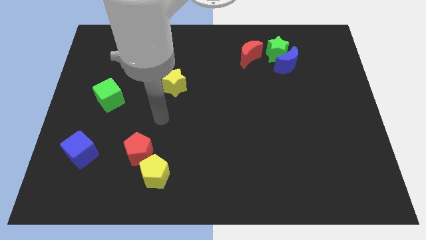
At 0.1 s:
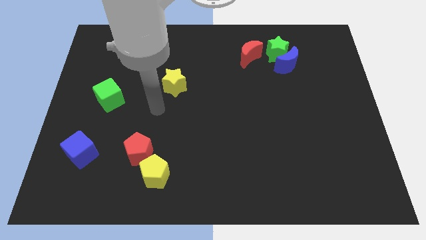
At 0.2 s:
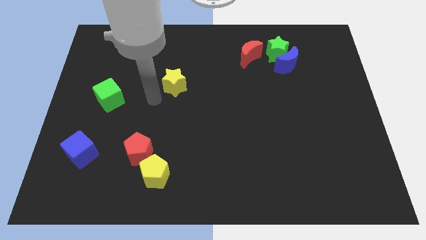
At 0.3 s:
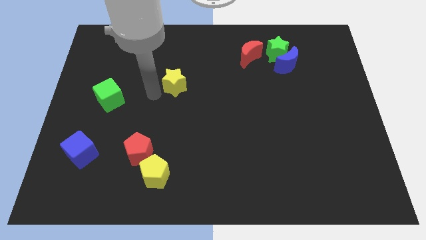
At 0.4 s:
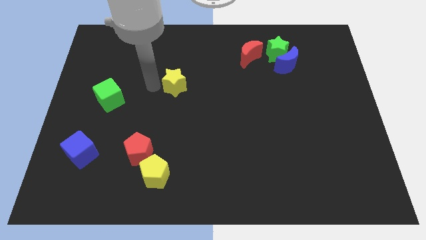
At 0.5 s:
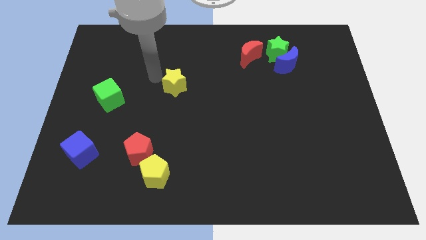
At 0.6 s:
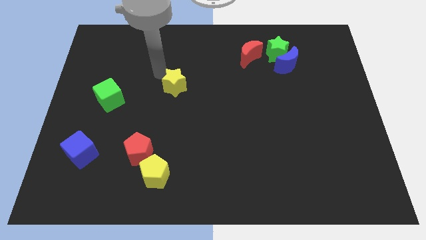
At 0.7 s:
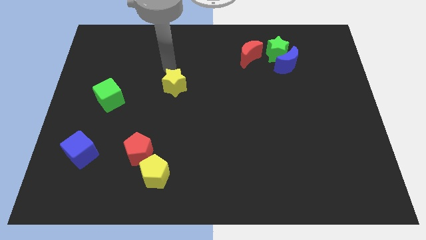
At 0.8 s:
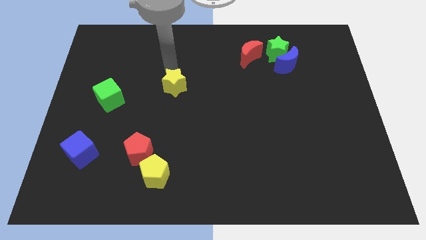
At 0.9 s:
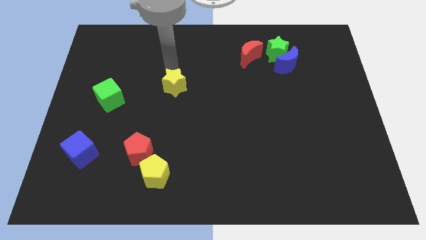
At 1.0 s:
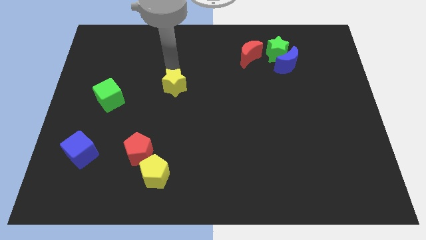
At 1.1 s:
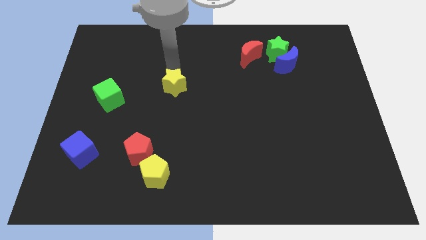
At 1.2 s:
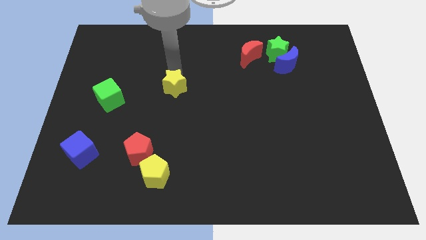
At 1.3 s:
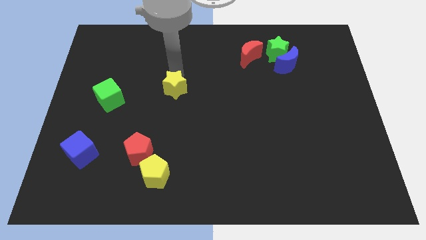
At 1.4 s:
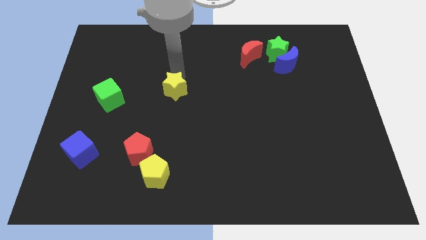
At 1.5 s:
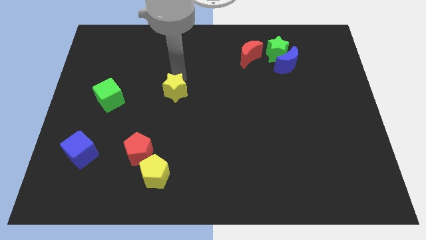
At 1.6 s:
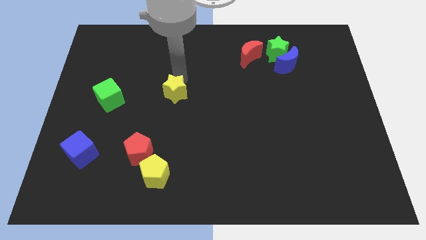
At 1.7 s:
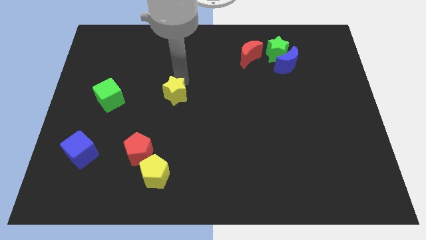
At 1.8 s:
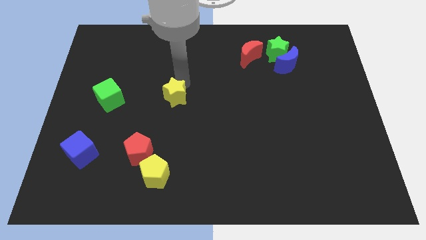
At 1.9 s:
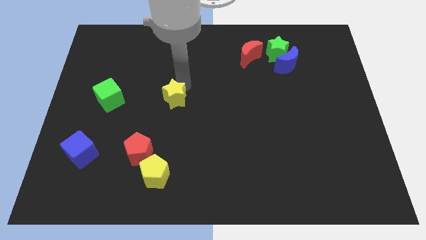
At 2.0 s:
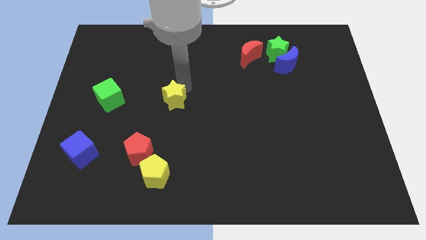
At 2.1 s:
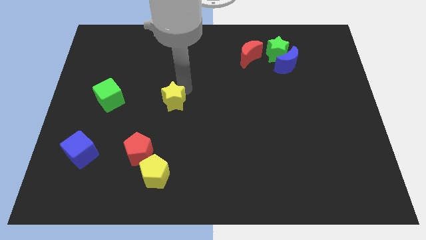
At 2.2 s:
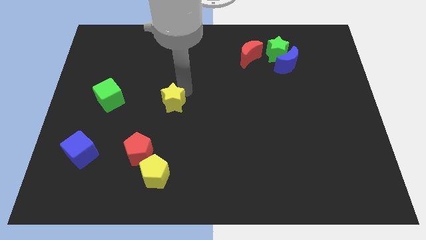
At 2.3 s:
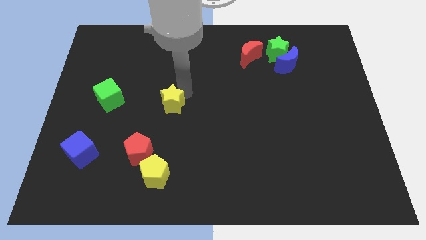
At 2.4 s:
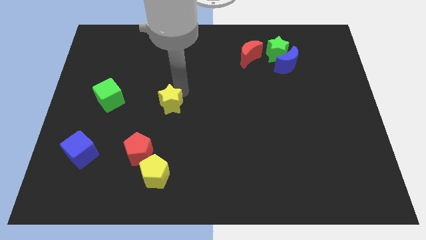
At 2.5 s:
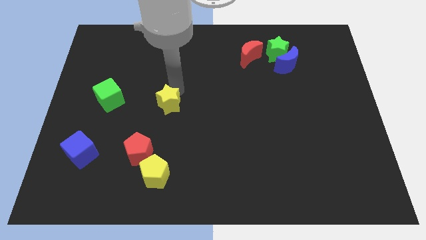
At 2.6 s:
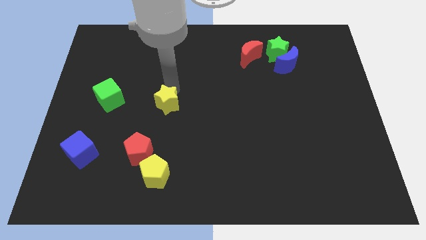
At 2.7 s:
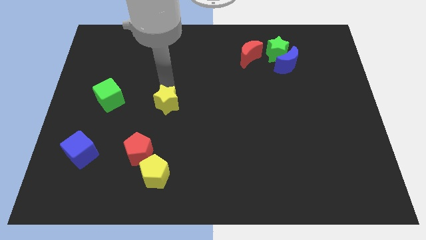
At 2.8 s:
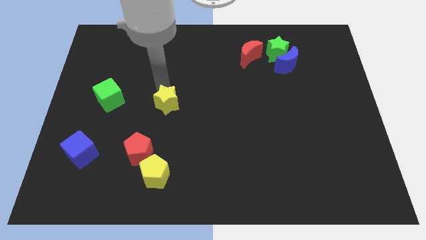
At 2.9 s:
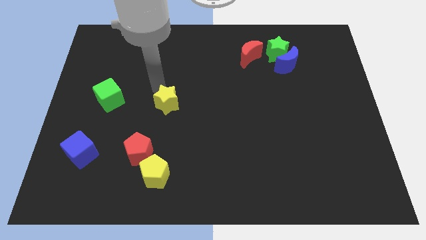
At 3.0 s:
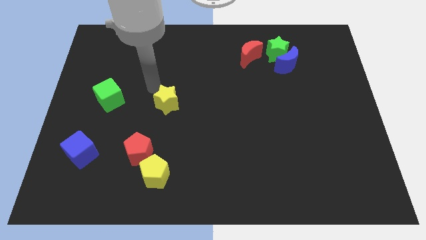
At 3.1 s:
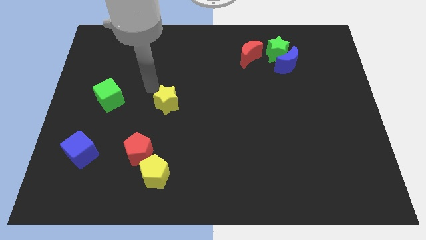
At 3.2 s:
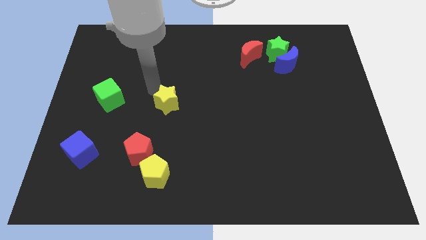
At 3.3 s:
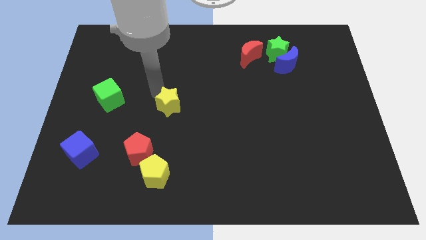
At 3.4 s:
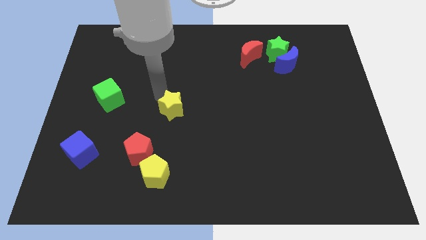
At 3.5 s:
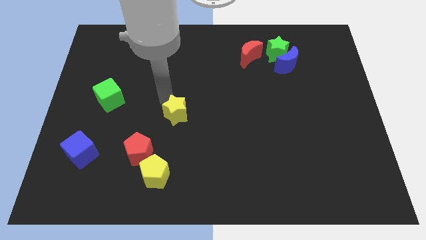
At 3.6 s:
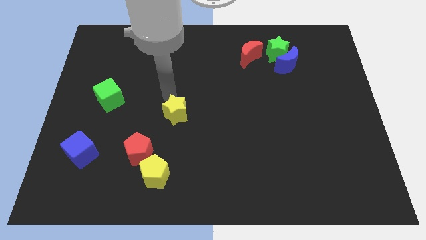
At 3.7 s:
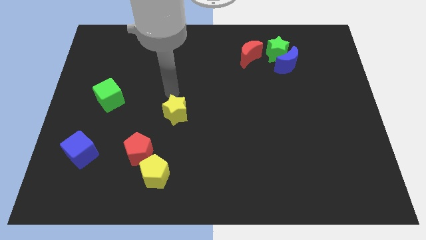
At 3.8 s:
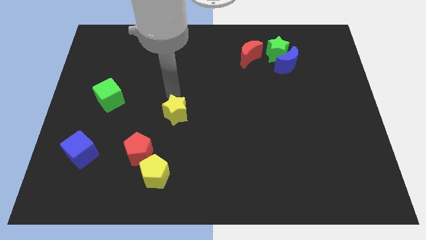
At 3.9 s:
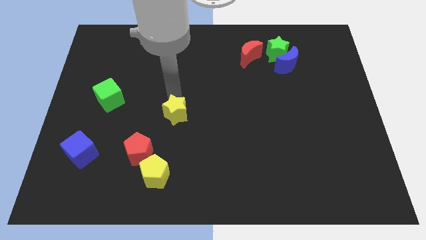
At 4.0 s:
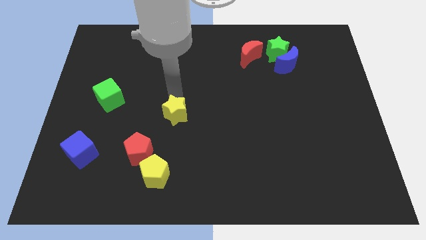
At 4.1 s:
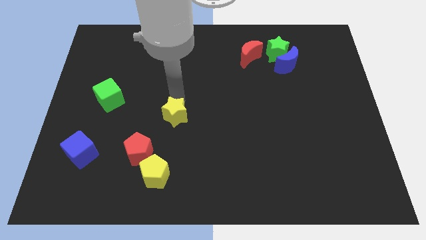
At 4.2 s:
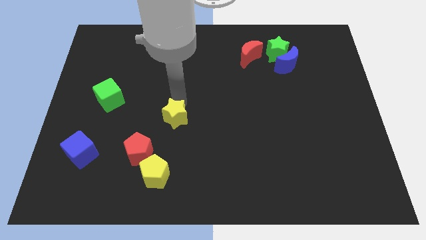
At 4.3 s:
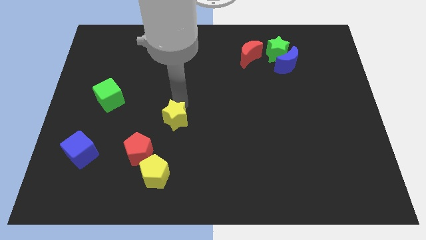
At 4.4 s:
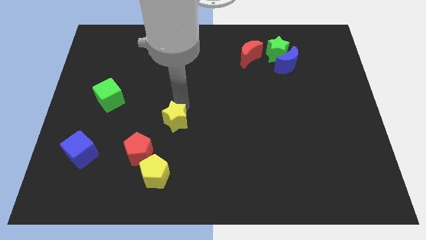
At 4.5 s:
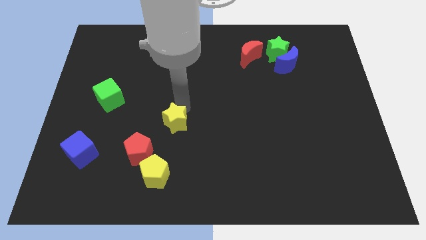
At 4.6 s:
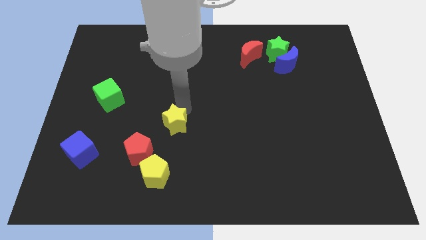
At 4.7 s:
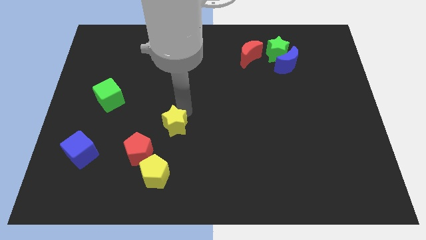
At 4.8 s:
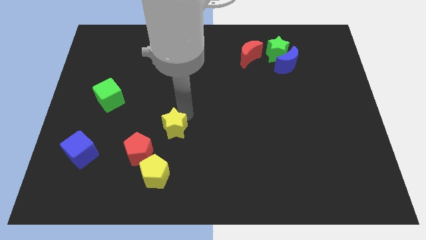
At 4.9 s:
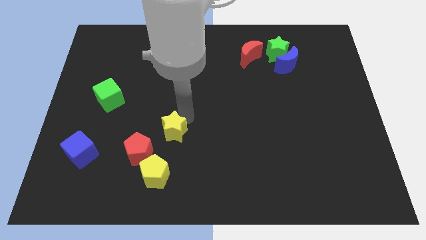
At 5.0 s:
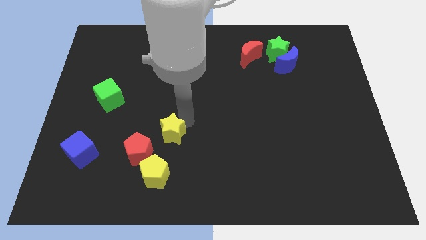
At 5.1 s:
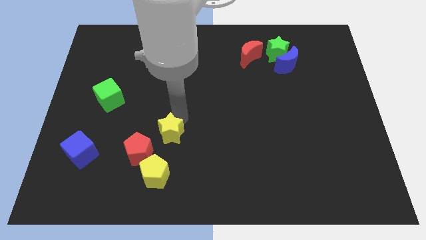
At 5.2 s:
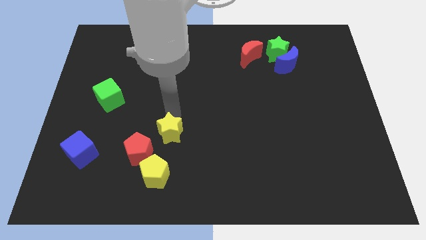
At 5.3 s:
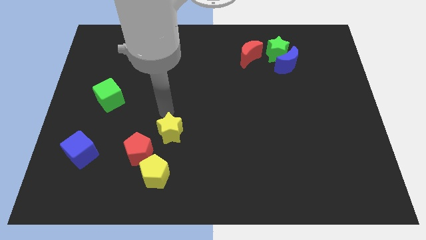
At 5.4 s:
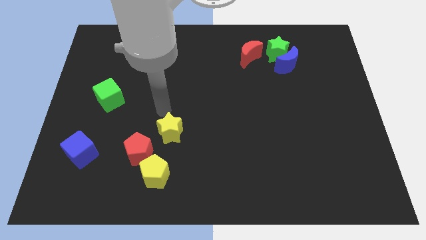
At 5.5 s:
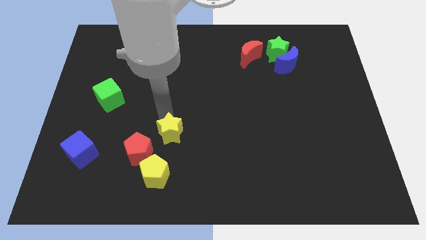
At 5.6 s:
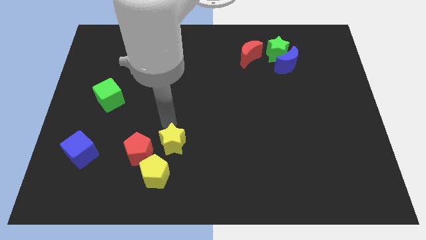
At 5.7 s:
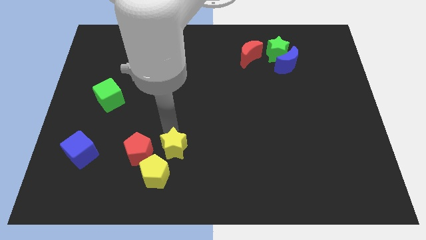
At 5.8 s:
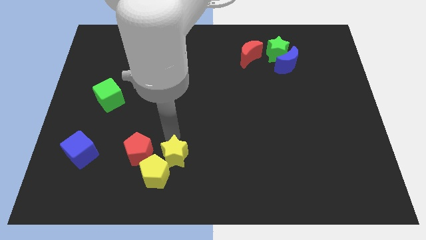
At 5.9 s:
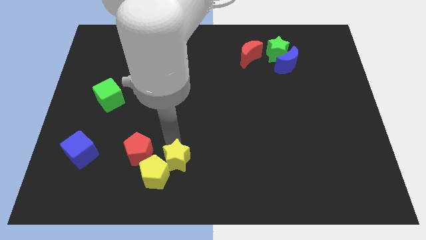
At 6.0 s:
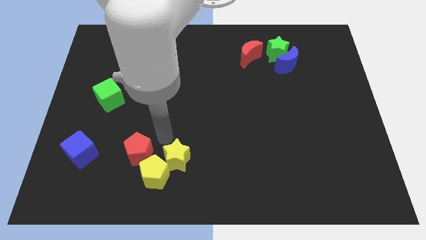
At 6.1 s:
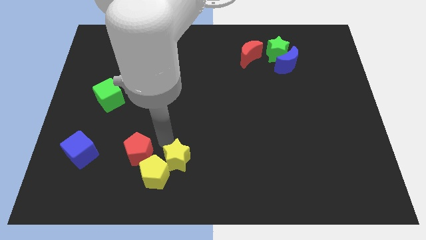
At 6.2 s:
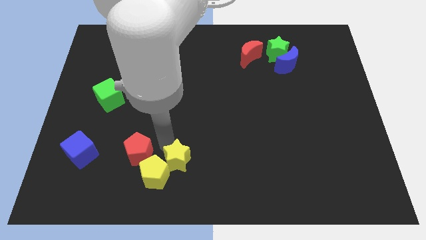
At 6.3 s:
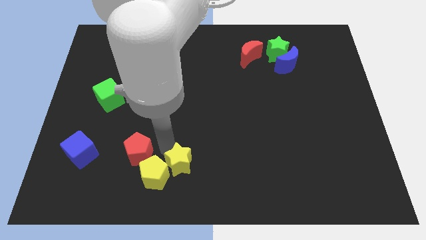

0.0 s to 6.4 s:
put the yellow star to the bottom side

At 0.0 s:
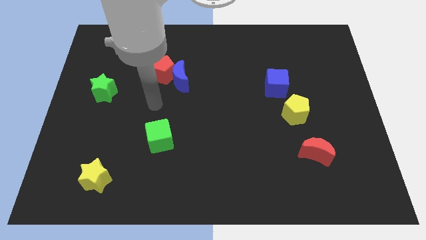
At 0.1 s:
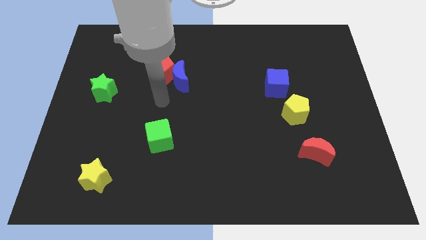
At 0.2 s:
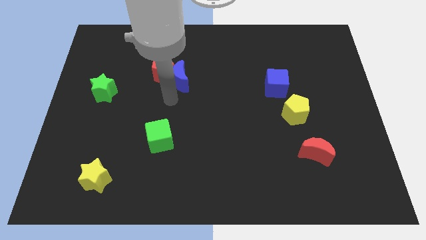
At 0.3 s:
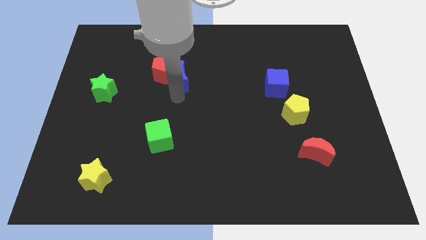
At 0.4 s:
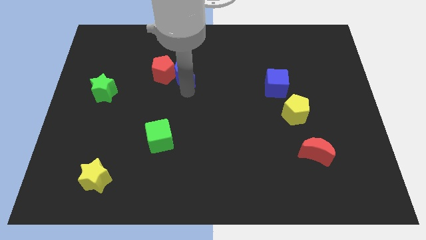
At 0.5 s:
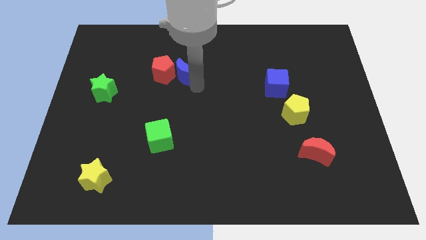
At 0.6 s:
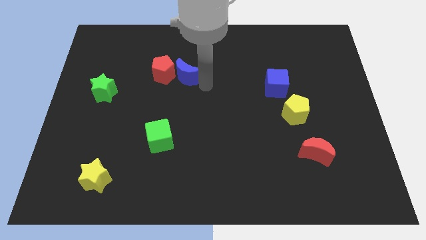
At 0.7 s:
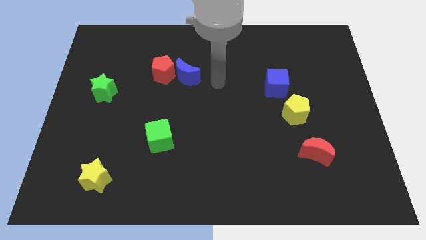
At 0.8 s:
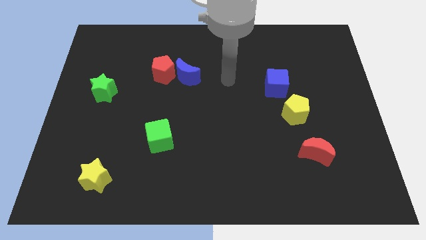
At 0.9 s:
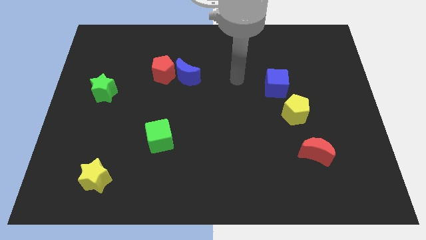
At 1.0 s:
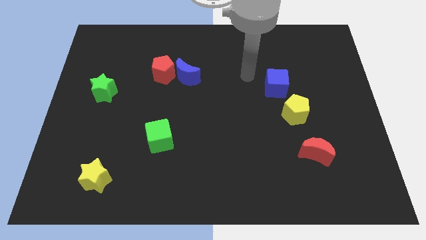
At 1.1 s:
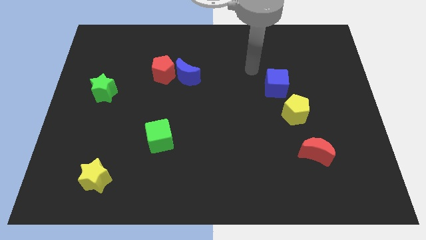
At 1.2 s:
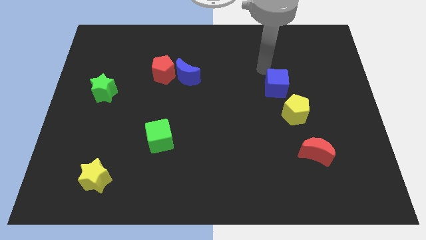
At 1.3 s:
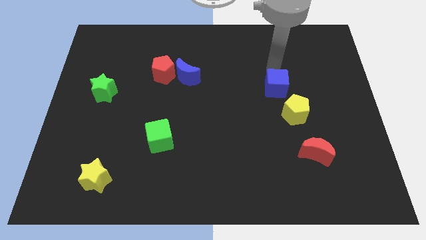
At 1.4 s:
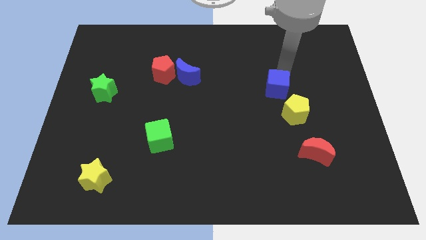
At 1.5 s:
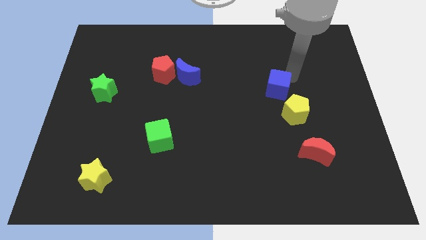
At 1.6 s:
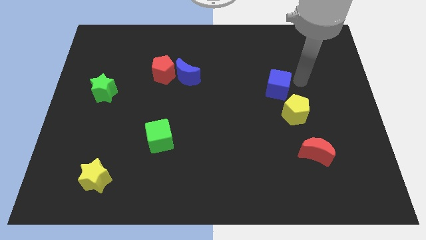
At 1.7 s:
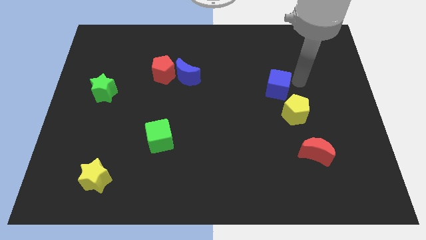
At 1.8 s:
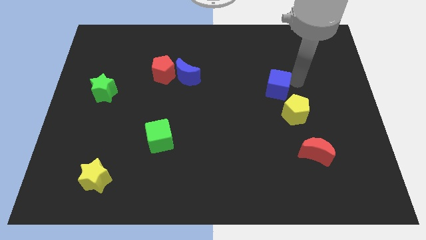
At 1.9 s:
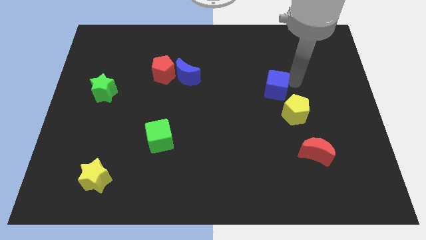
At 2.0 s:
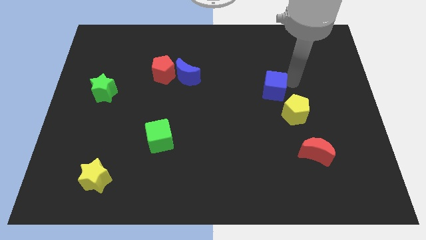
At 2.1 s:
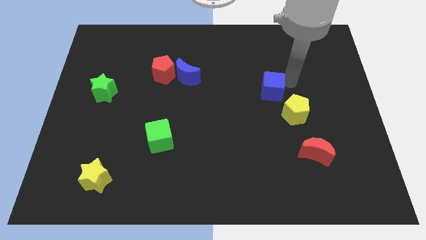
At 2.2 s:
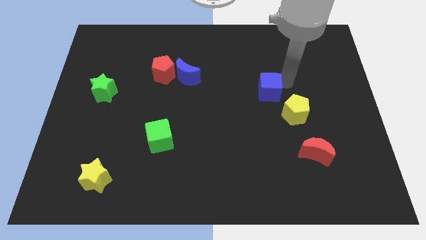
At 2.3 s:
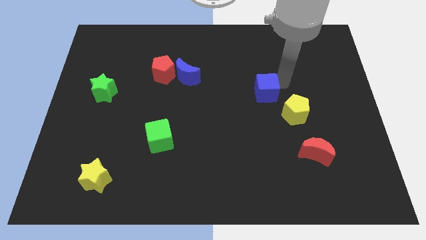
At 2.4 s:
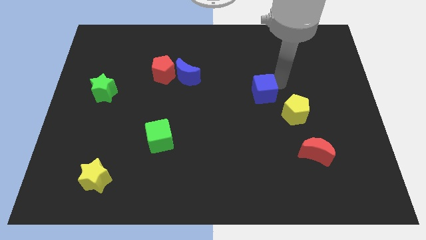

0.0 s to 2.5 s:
put the blue cube to the middle
